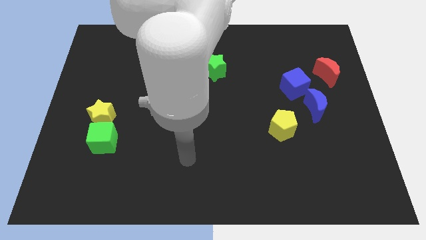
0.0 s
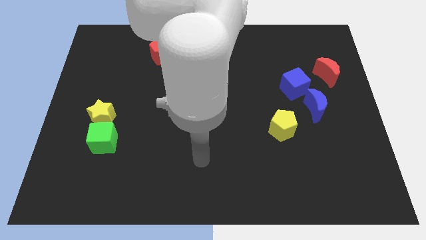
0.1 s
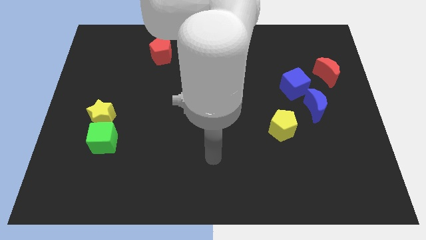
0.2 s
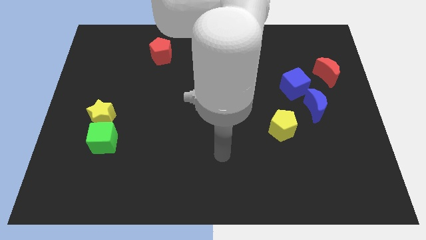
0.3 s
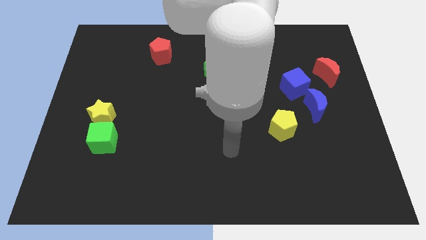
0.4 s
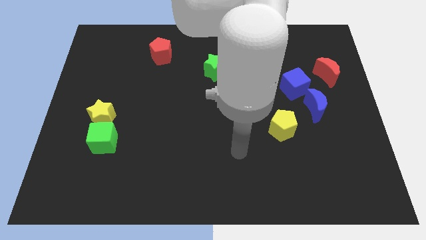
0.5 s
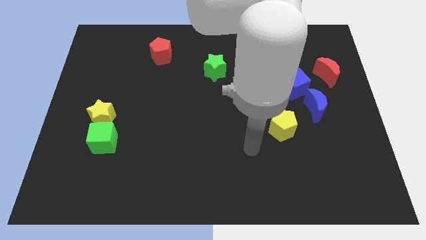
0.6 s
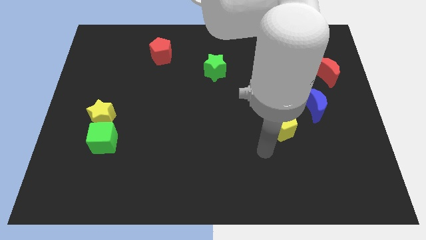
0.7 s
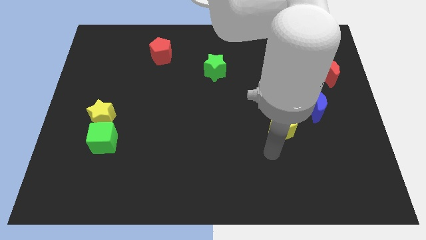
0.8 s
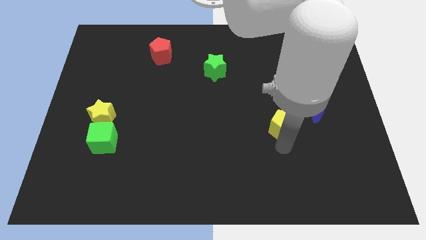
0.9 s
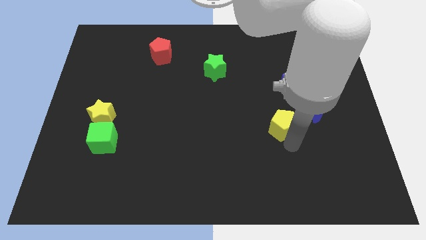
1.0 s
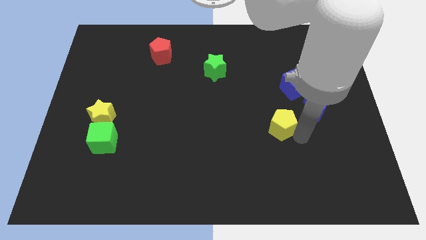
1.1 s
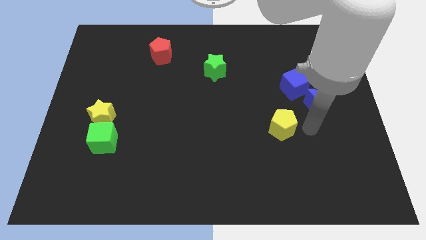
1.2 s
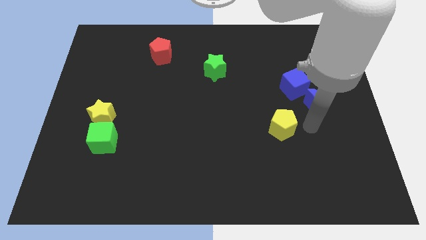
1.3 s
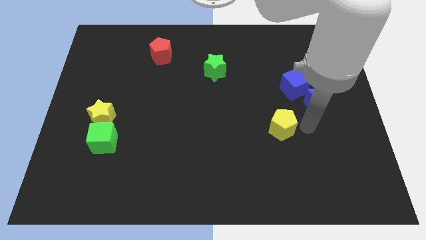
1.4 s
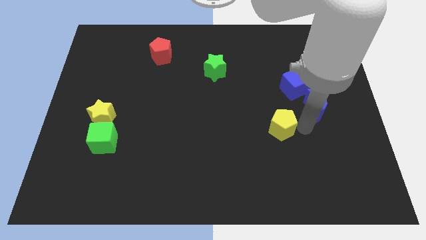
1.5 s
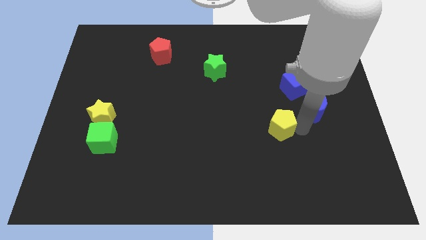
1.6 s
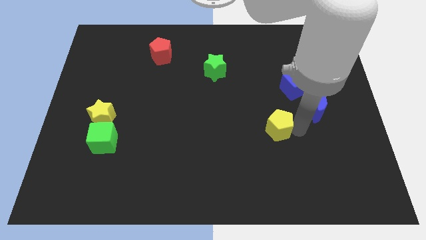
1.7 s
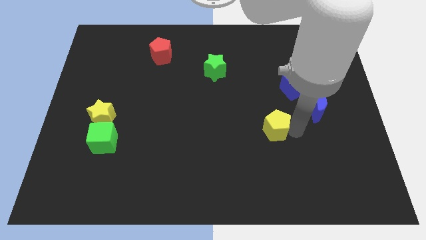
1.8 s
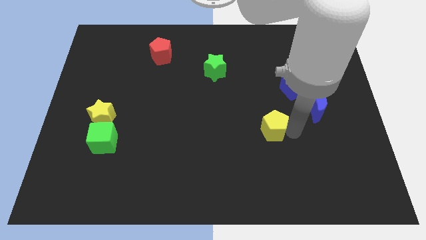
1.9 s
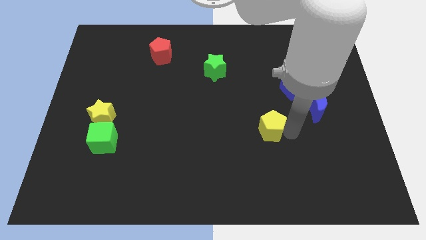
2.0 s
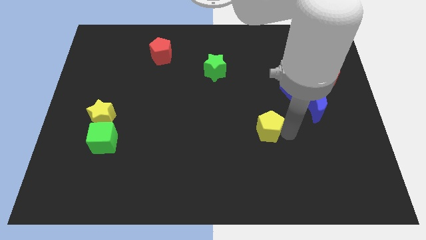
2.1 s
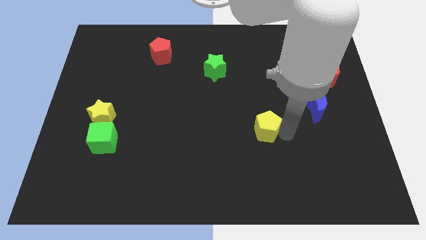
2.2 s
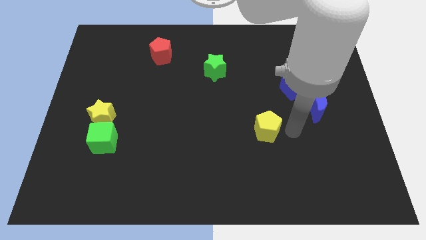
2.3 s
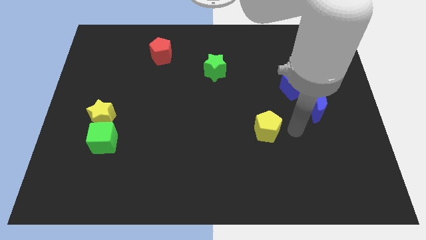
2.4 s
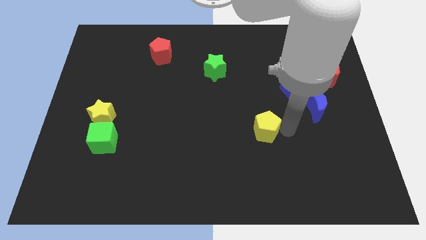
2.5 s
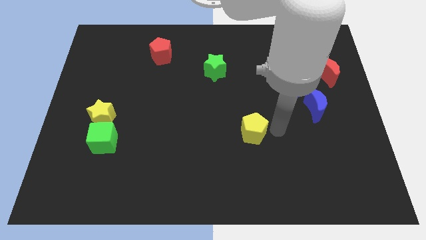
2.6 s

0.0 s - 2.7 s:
slightly push the yellow pentagon left

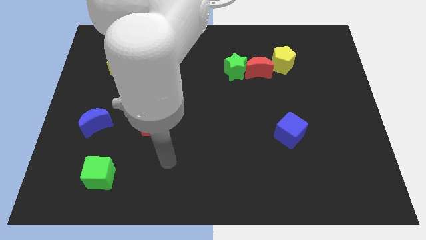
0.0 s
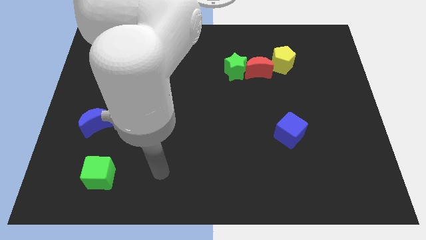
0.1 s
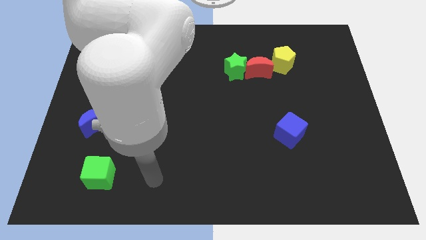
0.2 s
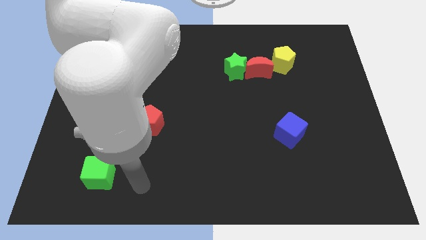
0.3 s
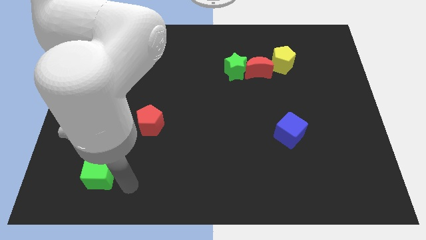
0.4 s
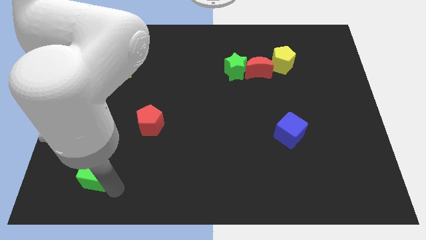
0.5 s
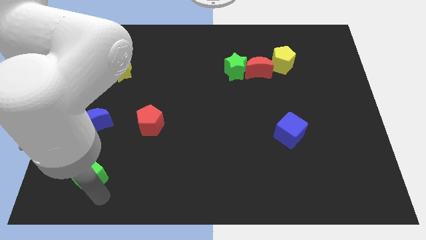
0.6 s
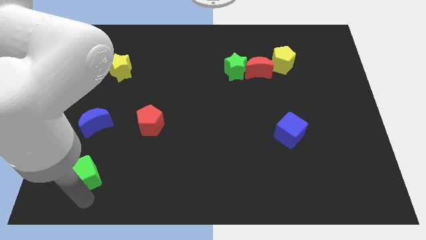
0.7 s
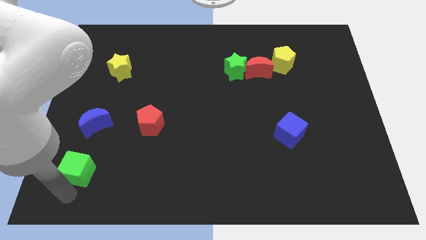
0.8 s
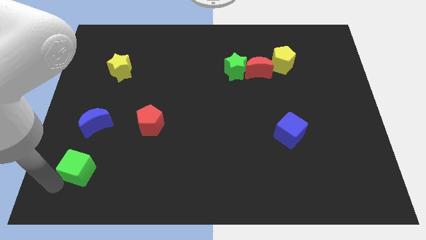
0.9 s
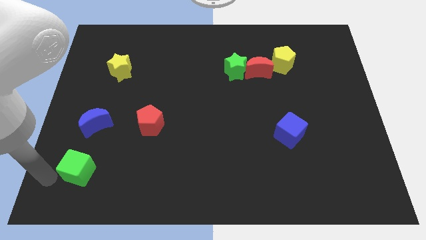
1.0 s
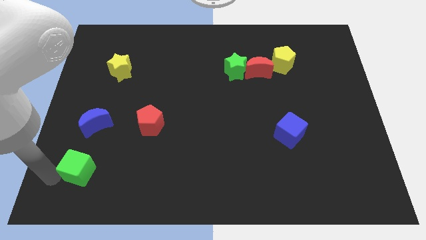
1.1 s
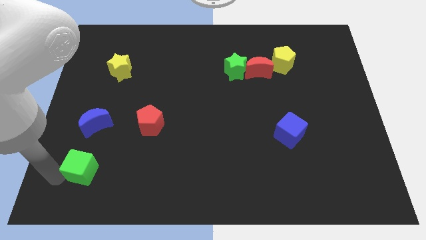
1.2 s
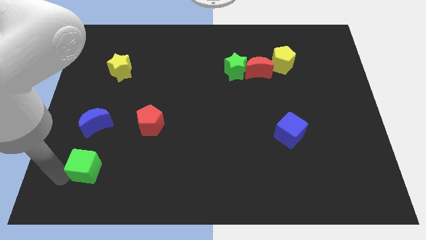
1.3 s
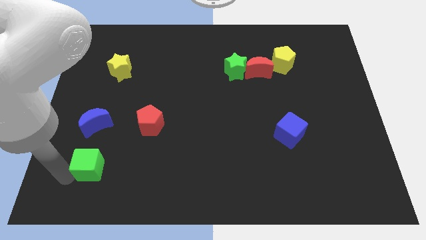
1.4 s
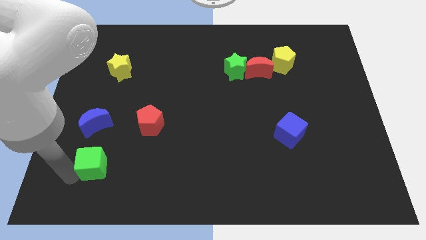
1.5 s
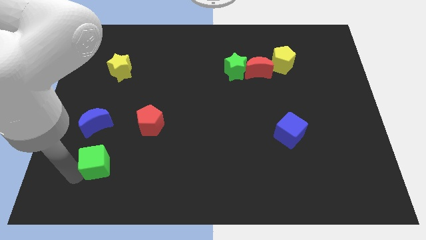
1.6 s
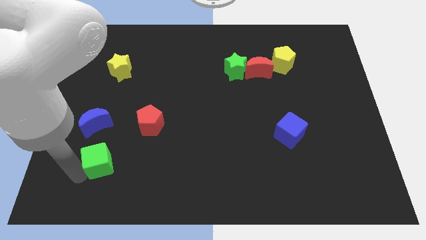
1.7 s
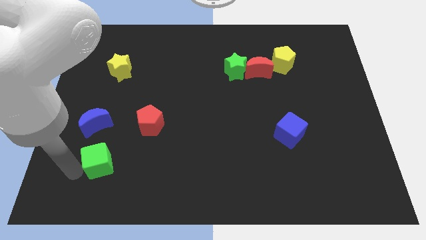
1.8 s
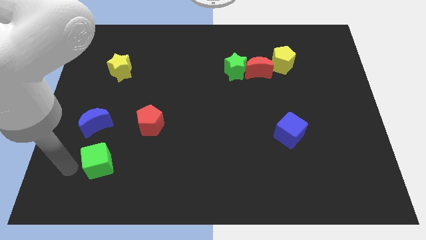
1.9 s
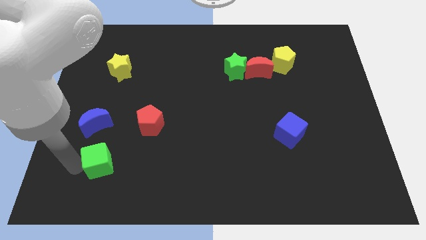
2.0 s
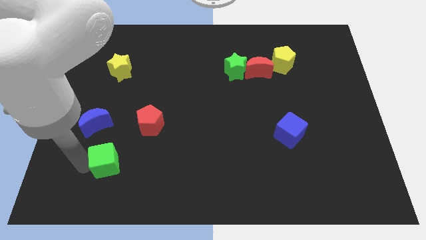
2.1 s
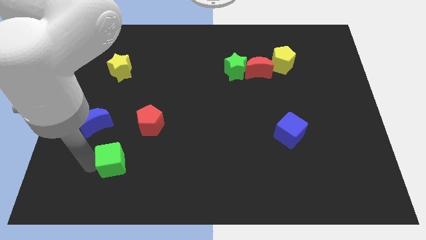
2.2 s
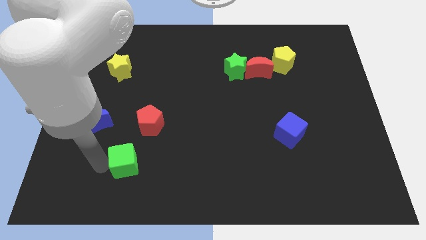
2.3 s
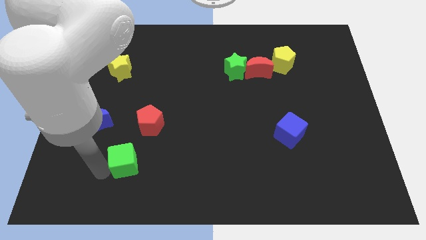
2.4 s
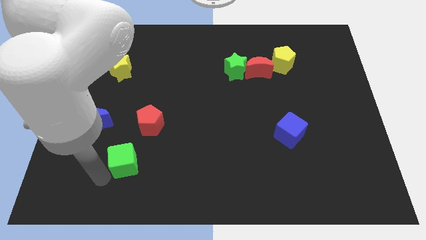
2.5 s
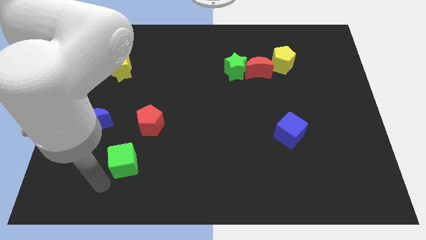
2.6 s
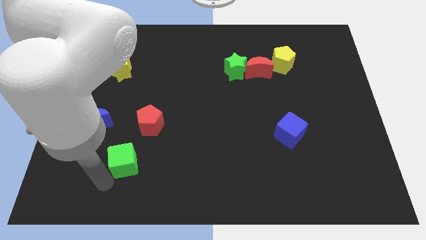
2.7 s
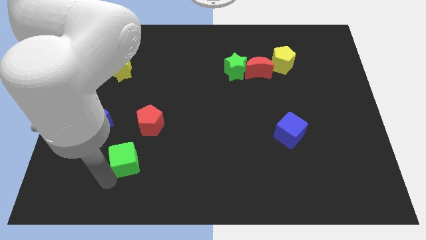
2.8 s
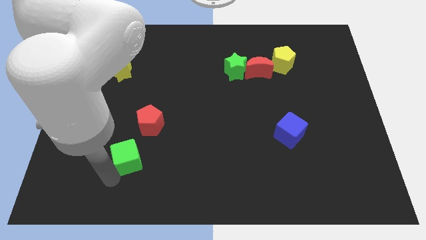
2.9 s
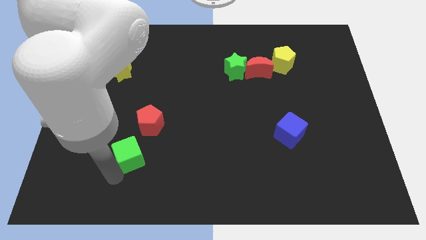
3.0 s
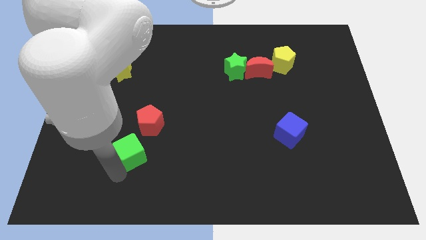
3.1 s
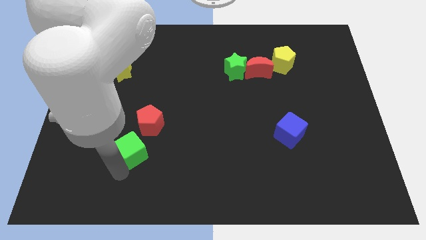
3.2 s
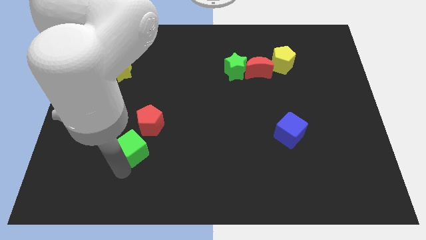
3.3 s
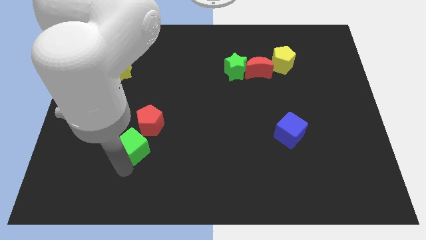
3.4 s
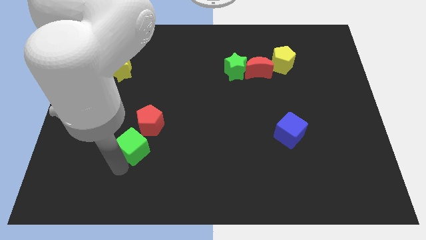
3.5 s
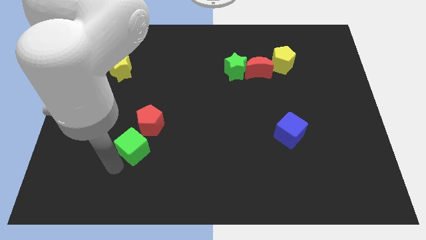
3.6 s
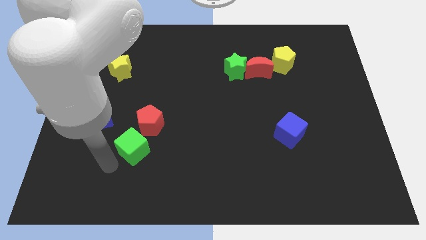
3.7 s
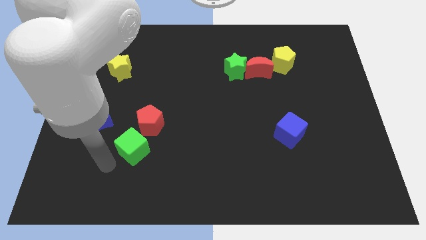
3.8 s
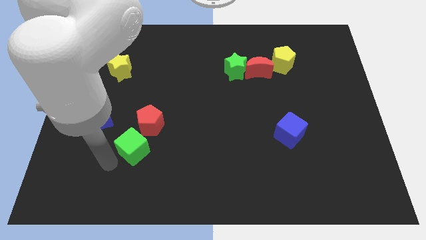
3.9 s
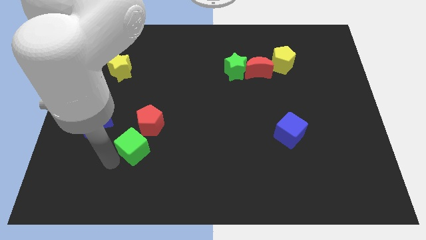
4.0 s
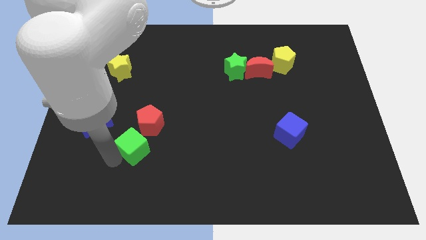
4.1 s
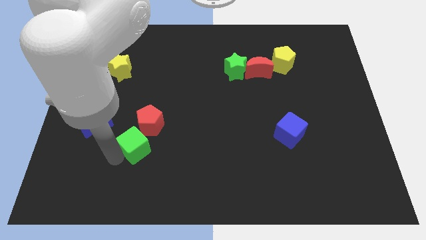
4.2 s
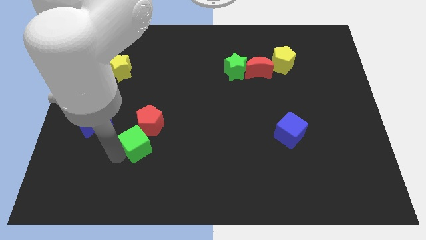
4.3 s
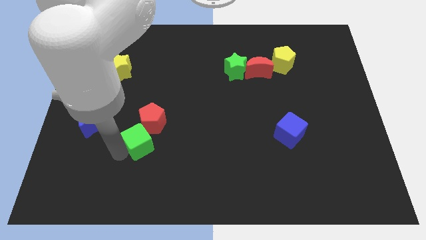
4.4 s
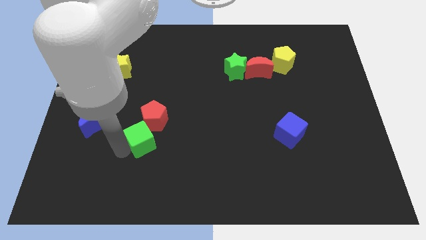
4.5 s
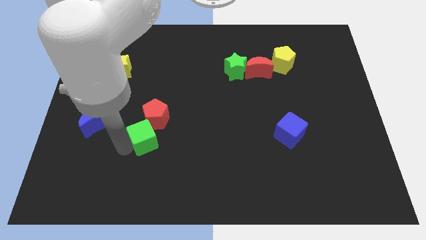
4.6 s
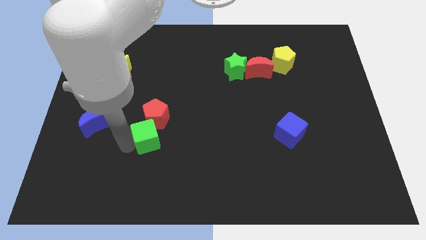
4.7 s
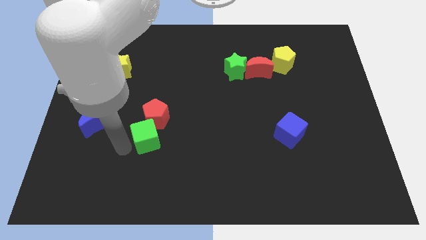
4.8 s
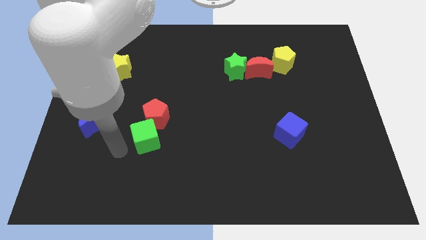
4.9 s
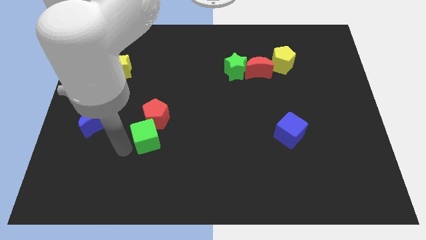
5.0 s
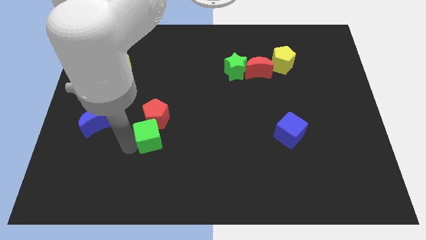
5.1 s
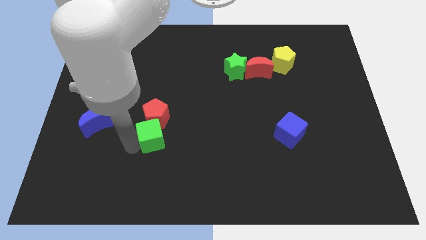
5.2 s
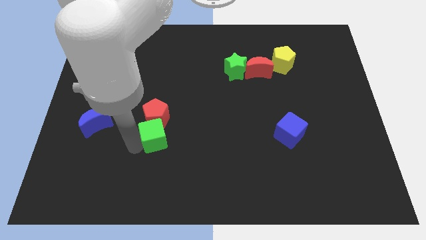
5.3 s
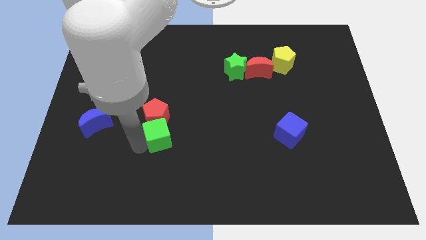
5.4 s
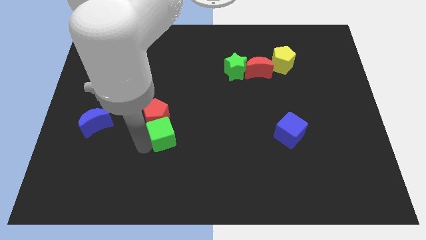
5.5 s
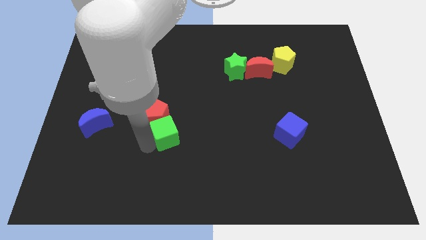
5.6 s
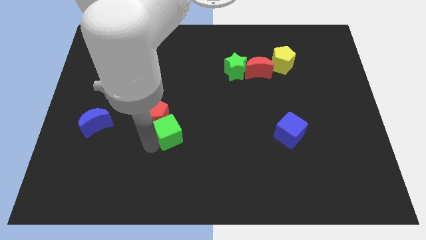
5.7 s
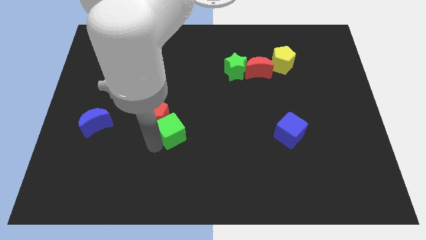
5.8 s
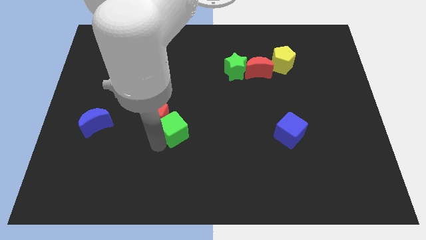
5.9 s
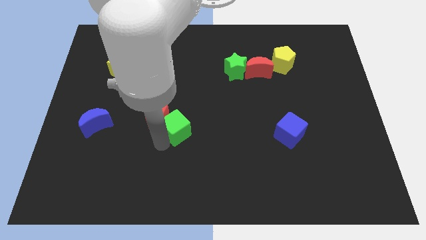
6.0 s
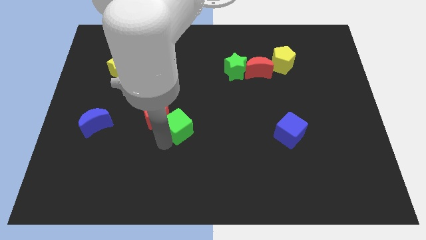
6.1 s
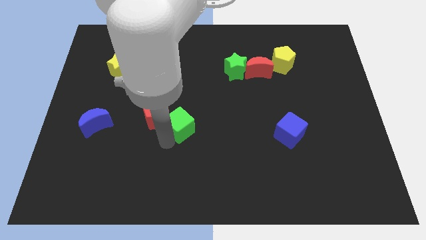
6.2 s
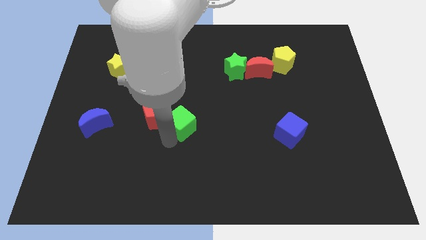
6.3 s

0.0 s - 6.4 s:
move the green cube diagonally upwards and to the right
